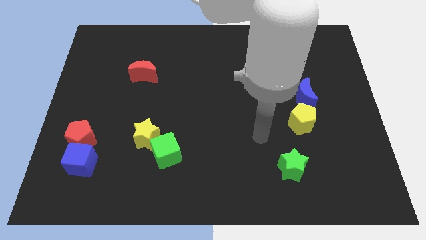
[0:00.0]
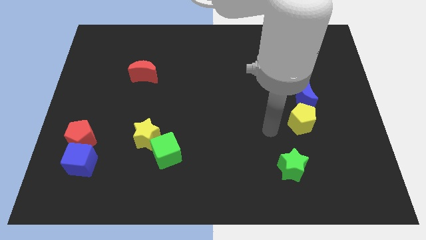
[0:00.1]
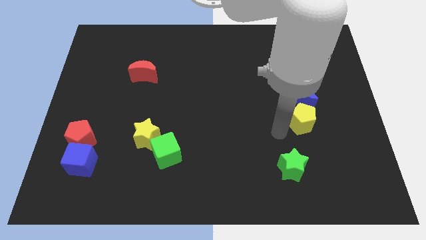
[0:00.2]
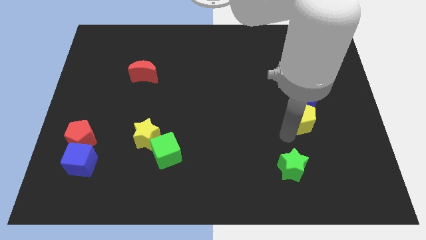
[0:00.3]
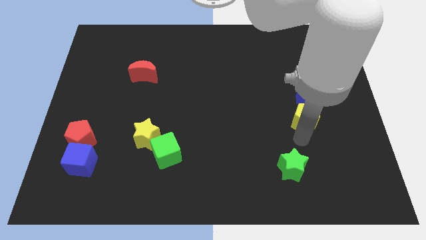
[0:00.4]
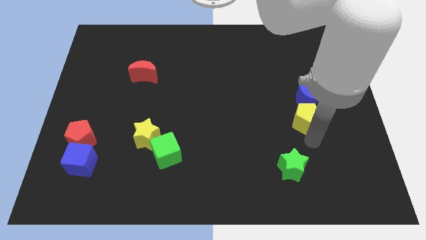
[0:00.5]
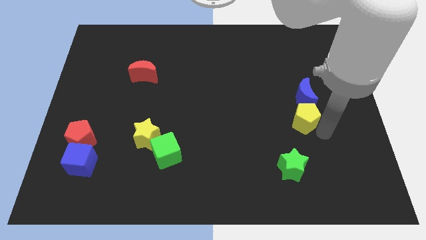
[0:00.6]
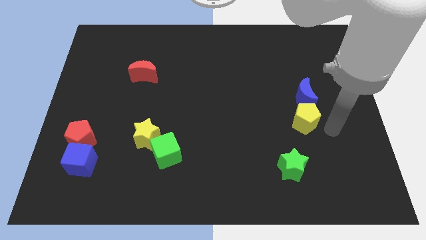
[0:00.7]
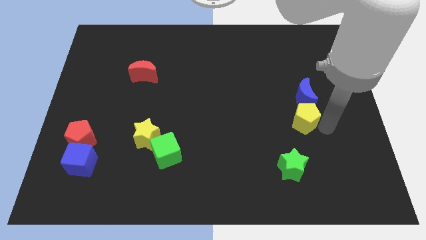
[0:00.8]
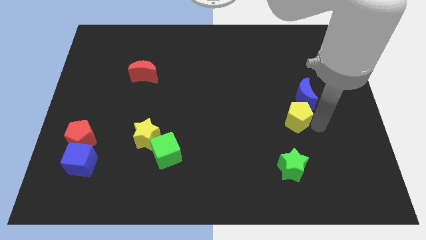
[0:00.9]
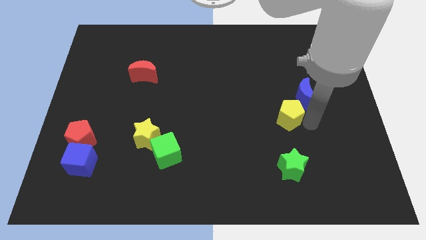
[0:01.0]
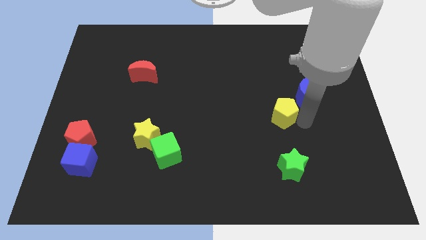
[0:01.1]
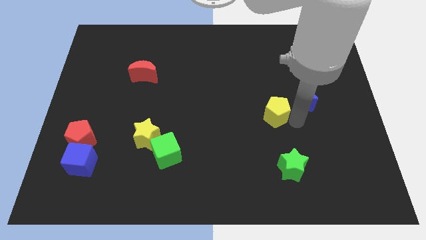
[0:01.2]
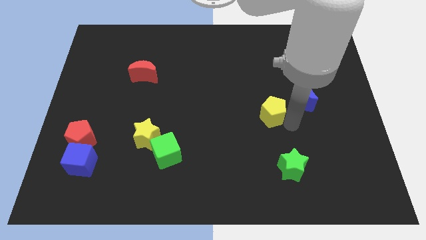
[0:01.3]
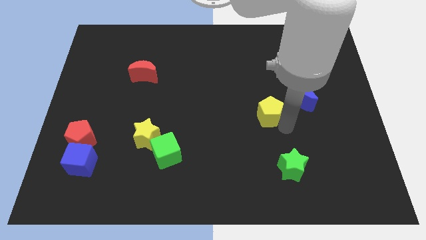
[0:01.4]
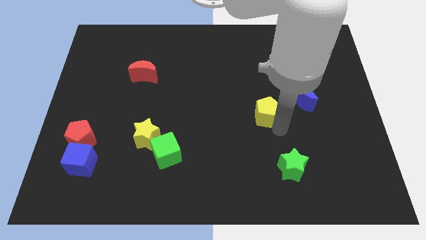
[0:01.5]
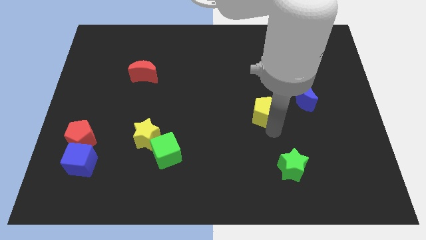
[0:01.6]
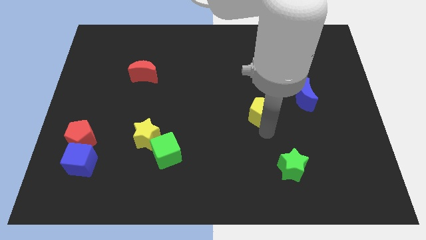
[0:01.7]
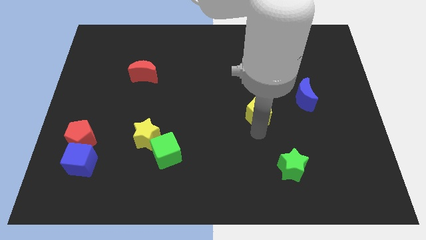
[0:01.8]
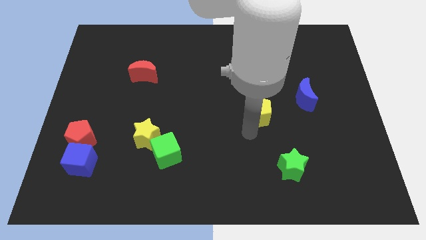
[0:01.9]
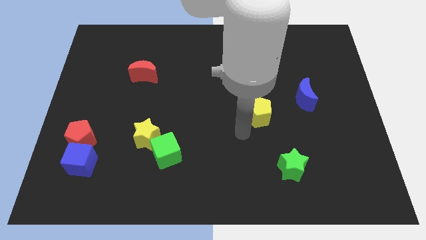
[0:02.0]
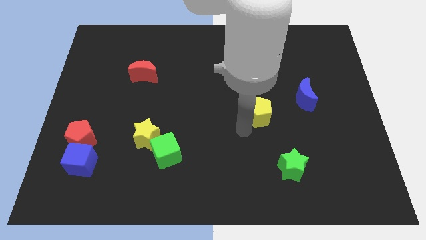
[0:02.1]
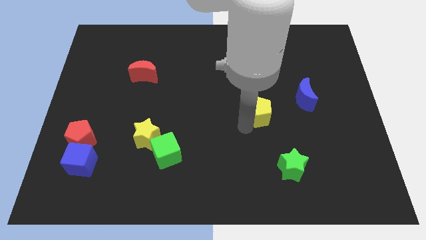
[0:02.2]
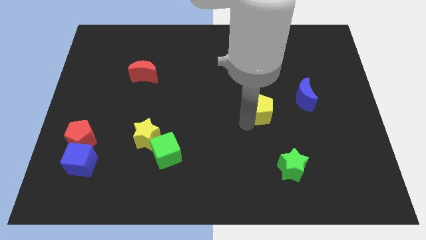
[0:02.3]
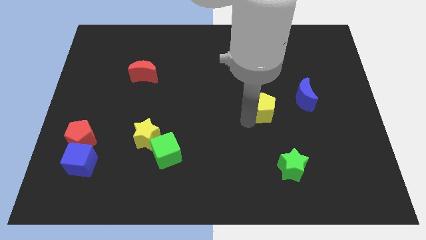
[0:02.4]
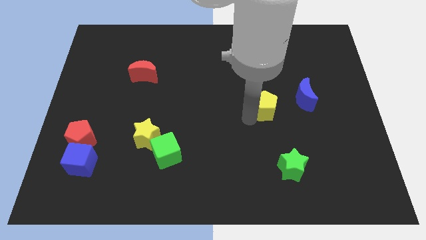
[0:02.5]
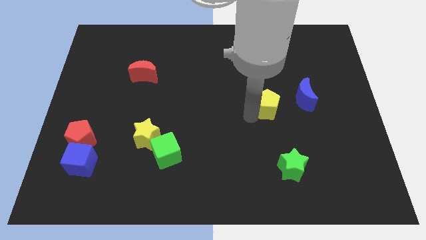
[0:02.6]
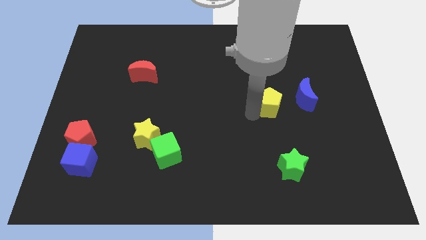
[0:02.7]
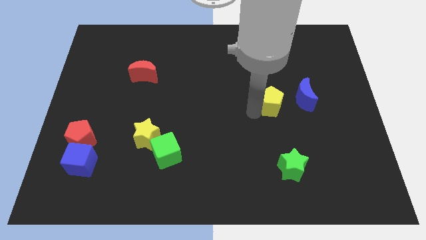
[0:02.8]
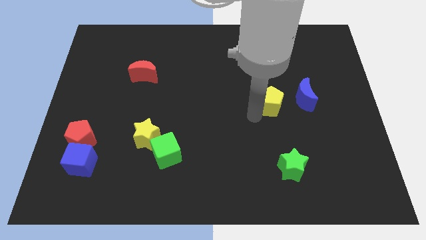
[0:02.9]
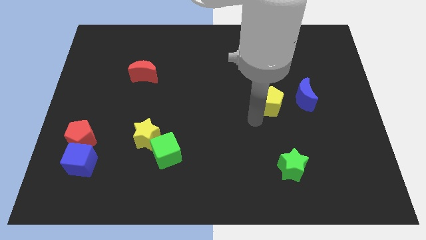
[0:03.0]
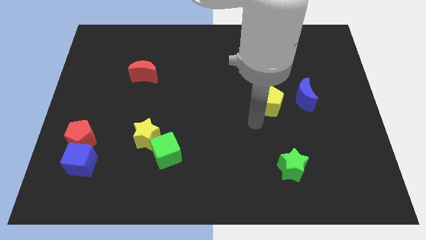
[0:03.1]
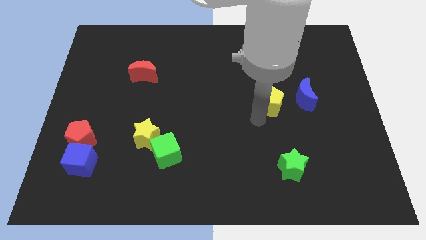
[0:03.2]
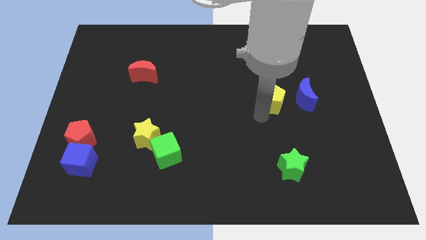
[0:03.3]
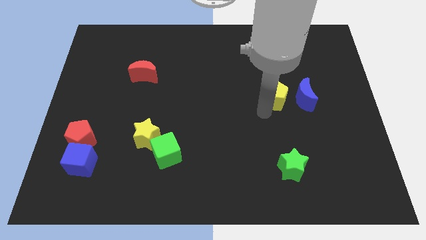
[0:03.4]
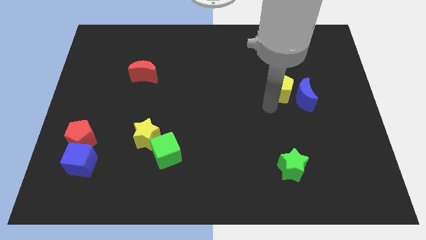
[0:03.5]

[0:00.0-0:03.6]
push the yellow pentagon a little bit upwards

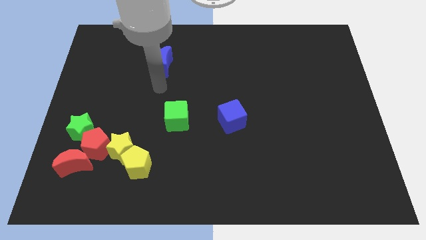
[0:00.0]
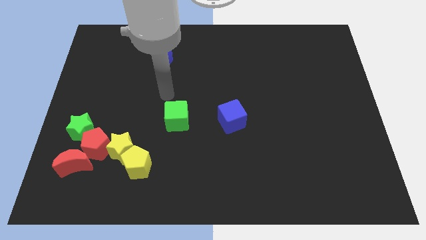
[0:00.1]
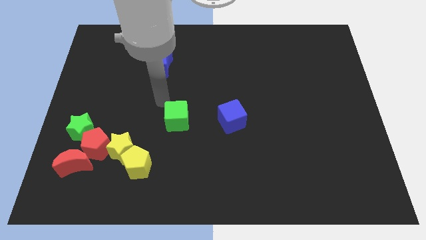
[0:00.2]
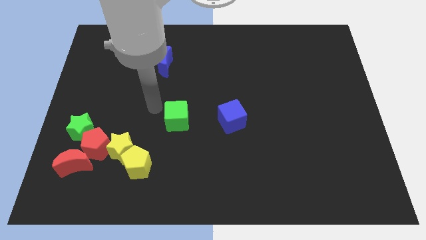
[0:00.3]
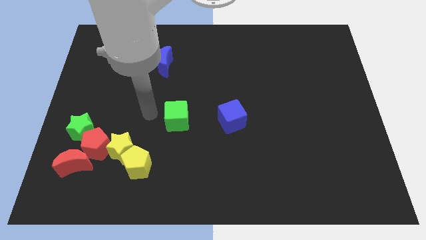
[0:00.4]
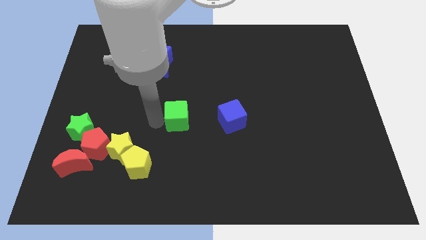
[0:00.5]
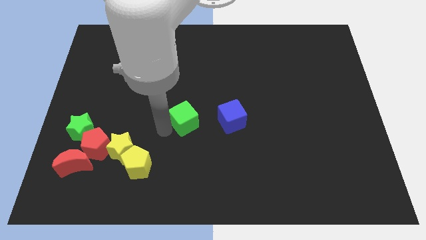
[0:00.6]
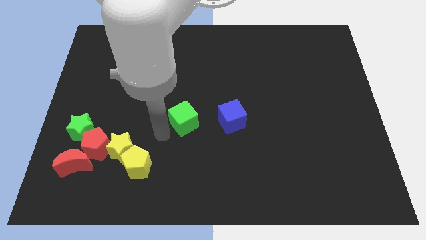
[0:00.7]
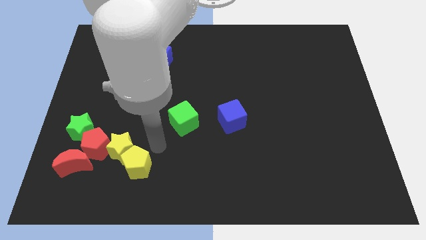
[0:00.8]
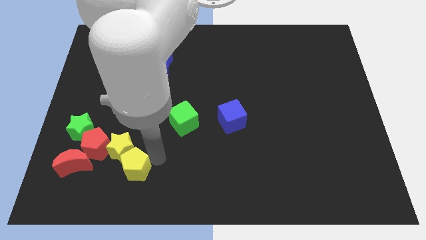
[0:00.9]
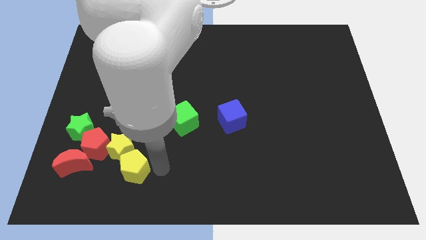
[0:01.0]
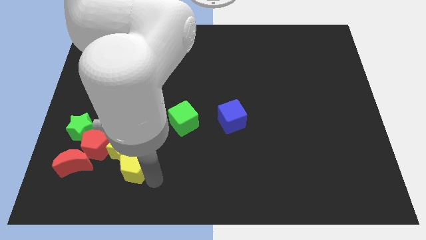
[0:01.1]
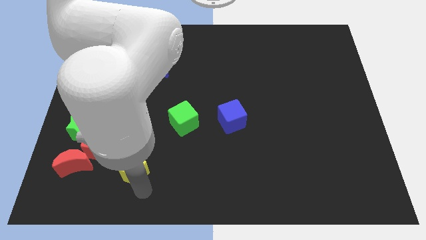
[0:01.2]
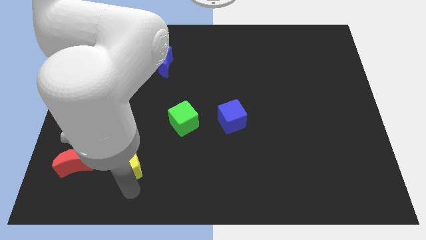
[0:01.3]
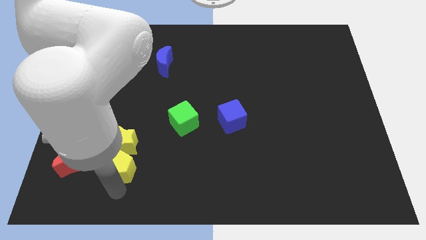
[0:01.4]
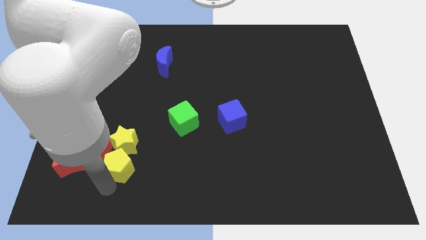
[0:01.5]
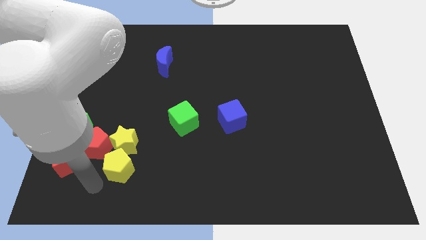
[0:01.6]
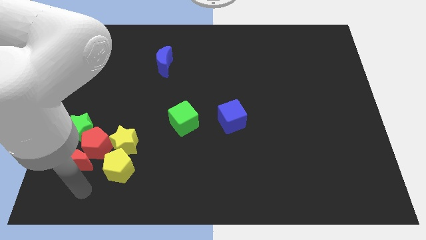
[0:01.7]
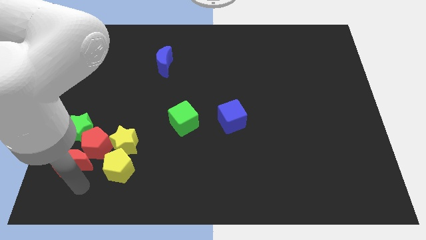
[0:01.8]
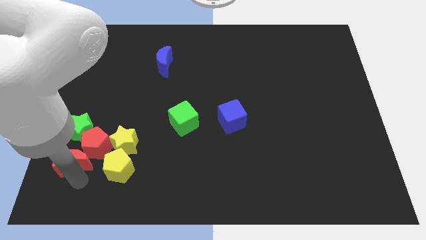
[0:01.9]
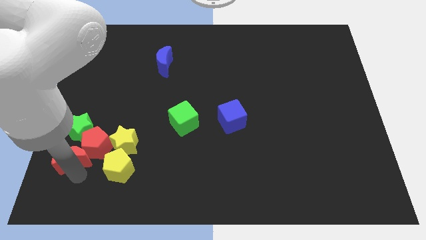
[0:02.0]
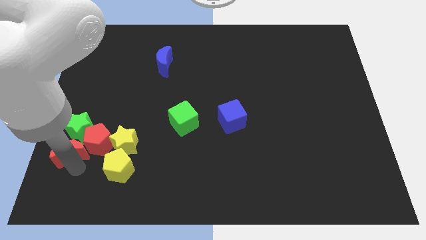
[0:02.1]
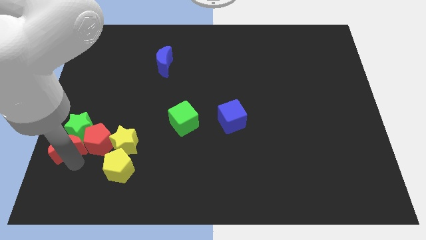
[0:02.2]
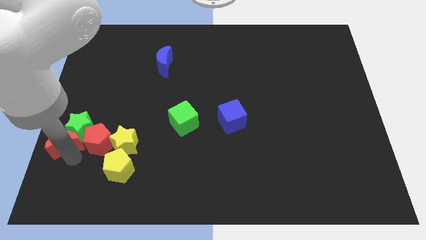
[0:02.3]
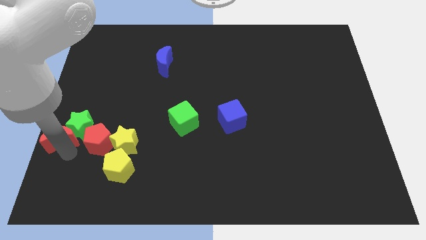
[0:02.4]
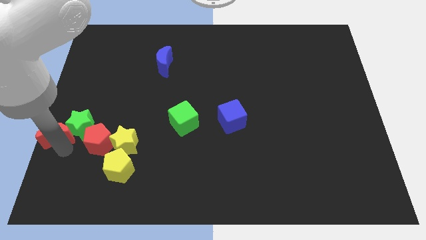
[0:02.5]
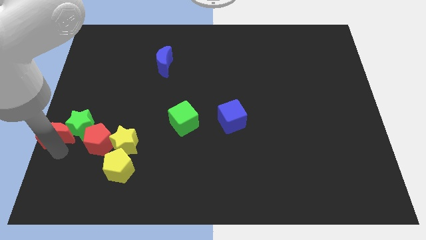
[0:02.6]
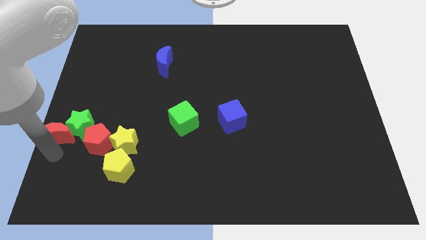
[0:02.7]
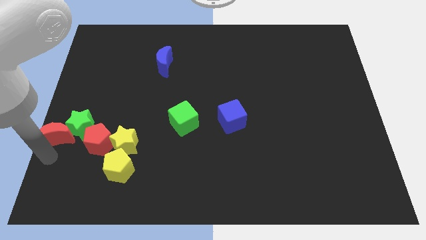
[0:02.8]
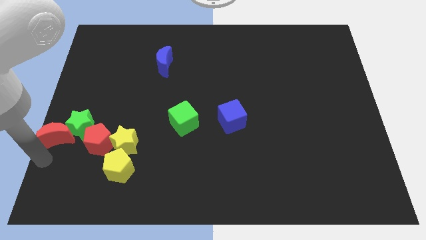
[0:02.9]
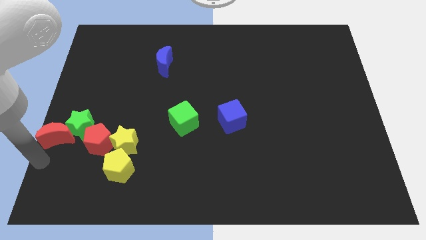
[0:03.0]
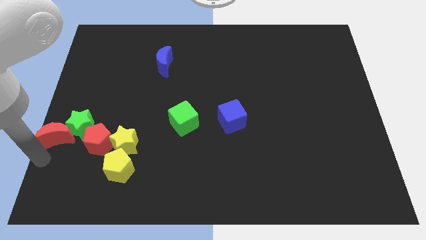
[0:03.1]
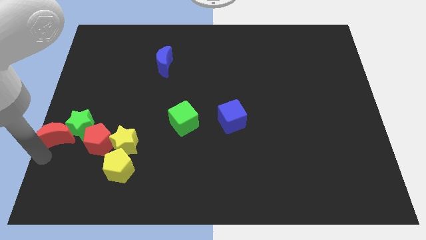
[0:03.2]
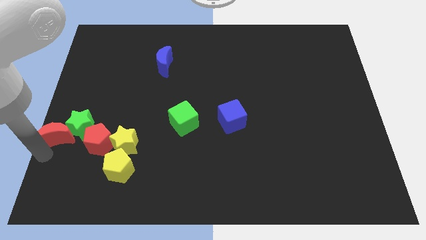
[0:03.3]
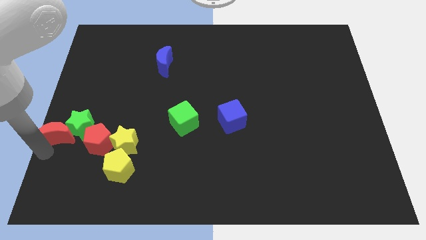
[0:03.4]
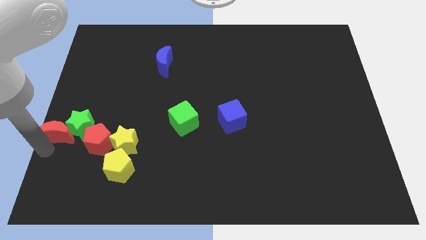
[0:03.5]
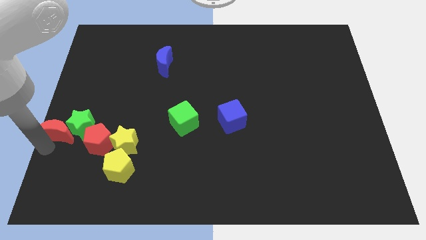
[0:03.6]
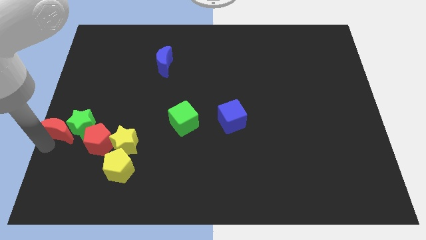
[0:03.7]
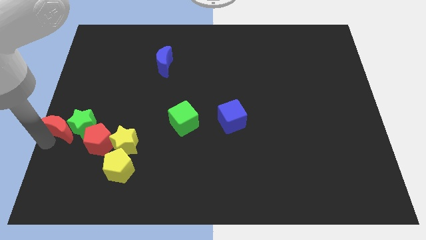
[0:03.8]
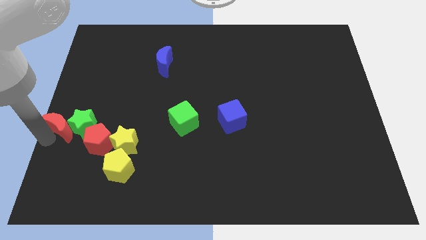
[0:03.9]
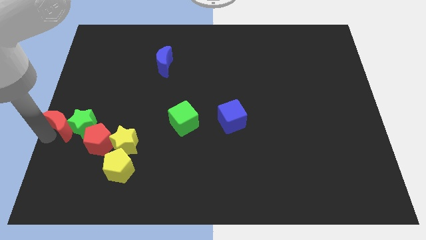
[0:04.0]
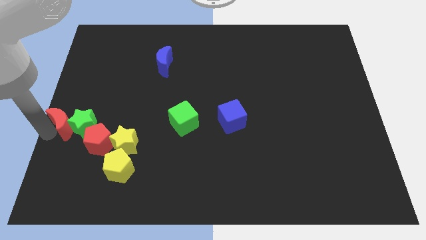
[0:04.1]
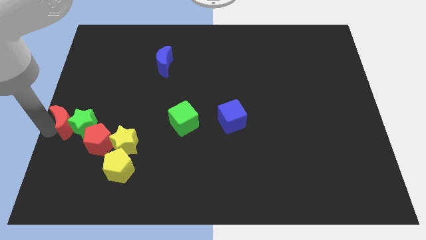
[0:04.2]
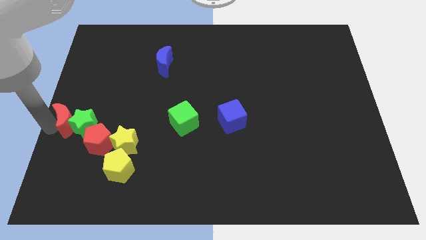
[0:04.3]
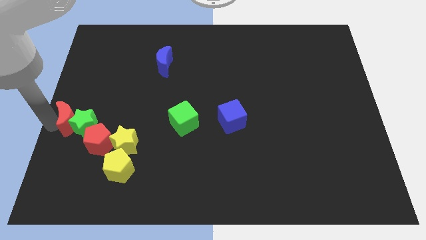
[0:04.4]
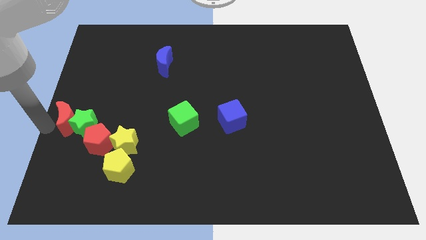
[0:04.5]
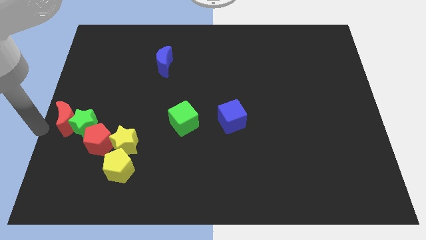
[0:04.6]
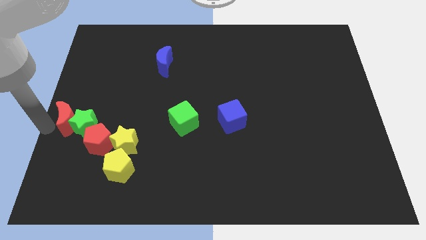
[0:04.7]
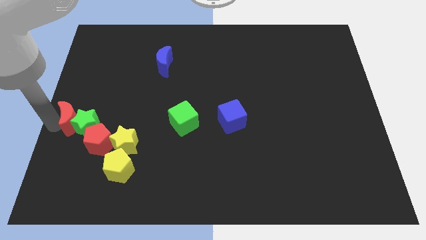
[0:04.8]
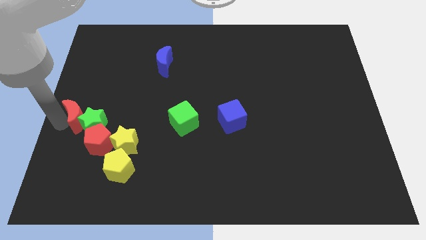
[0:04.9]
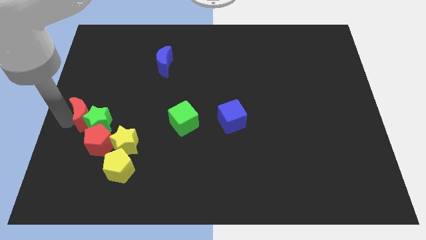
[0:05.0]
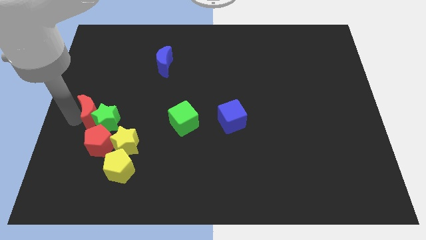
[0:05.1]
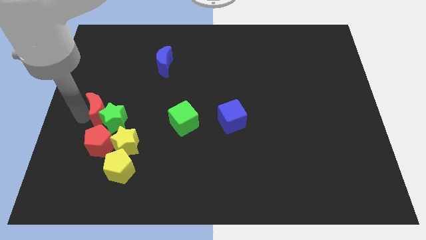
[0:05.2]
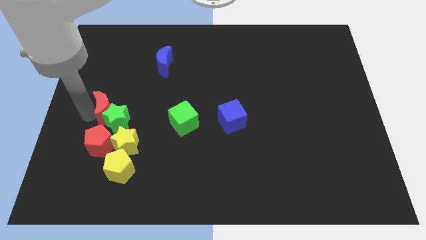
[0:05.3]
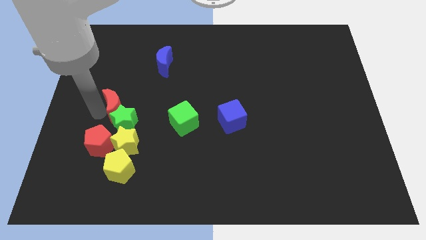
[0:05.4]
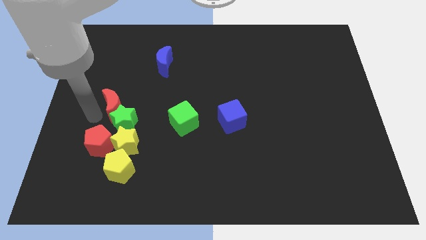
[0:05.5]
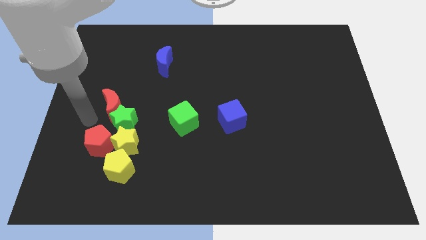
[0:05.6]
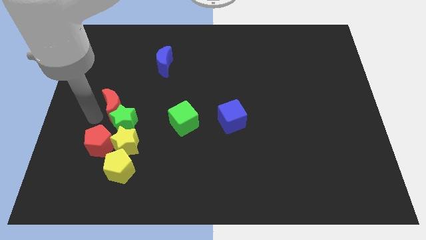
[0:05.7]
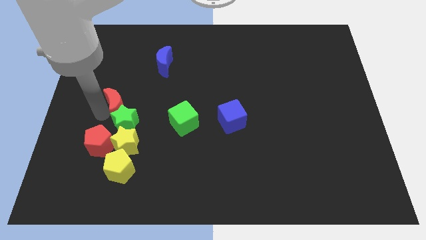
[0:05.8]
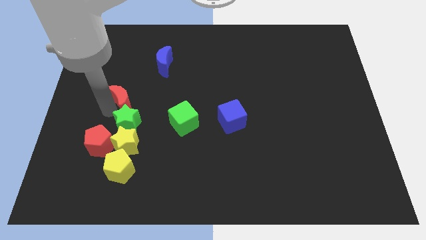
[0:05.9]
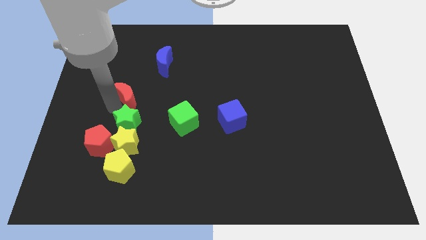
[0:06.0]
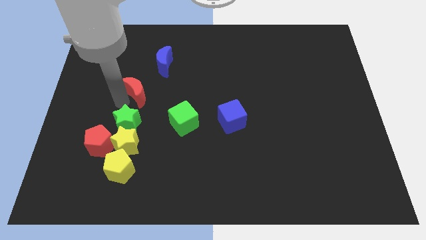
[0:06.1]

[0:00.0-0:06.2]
push the red moon diagonally upwards and right
